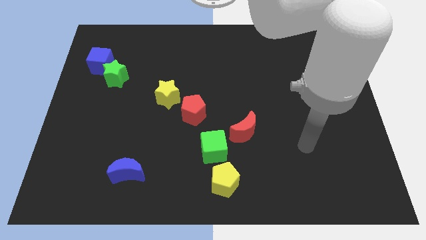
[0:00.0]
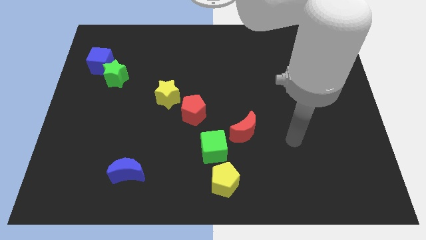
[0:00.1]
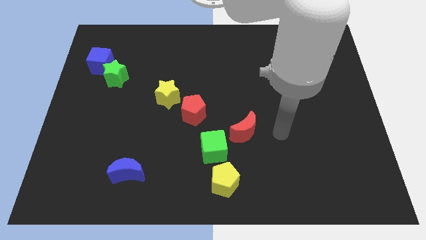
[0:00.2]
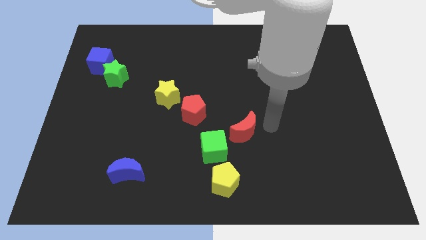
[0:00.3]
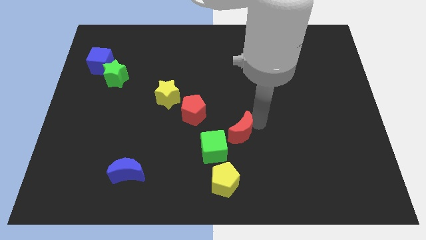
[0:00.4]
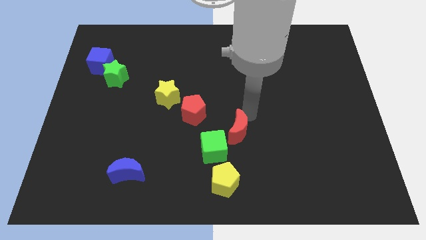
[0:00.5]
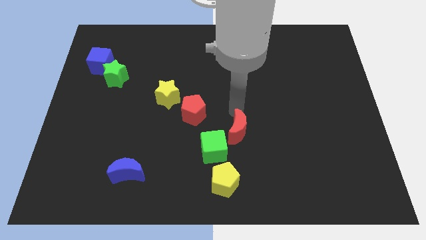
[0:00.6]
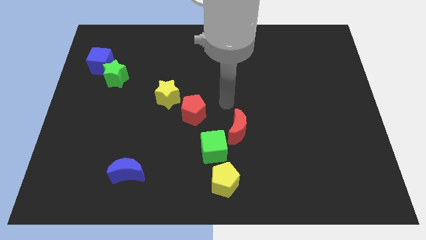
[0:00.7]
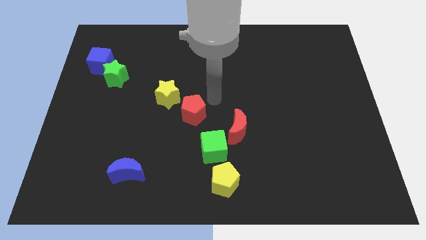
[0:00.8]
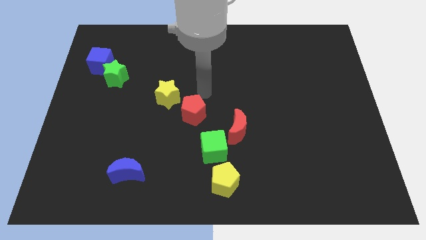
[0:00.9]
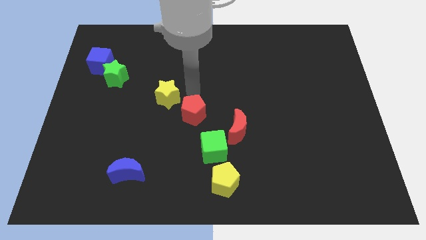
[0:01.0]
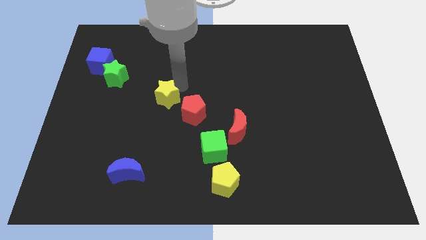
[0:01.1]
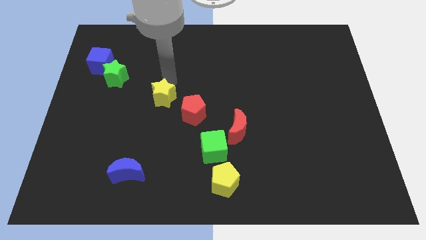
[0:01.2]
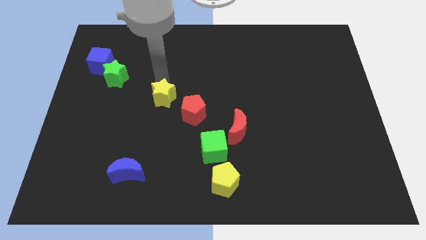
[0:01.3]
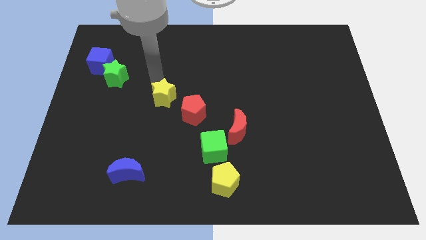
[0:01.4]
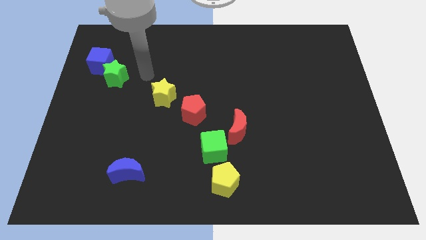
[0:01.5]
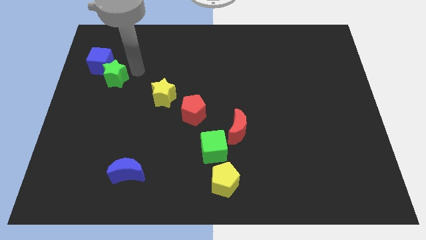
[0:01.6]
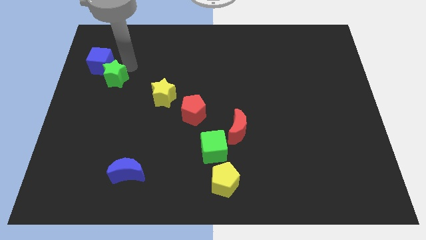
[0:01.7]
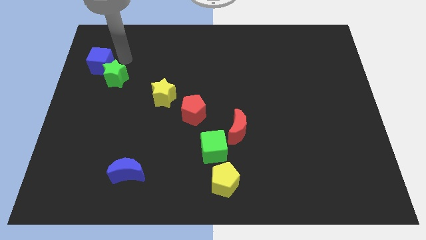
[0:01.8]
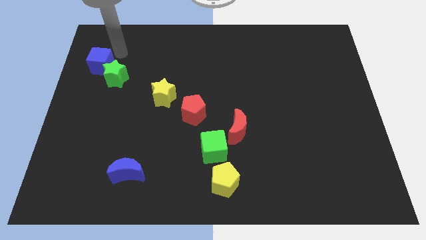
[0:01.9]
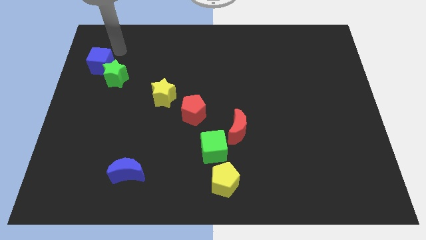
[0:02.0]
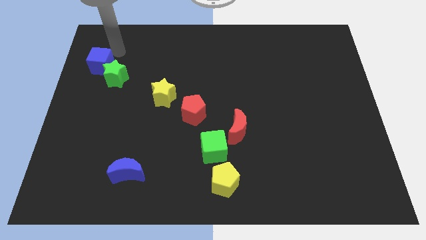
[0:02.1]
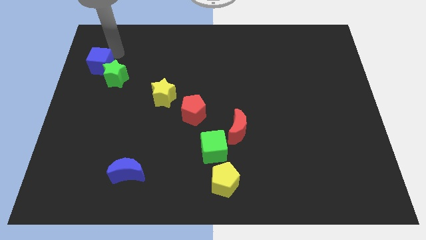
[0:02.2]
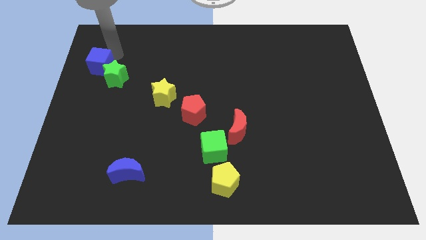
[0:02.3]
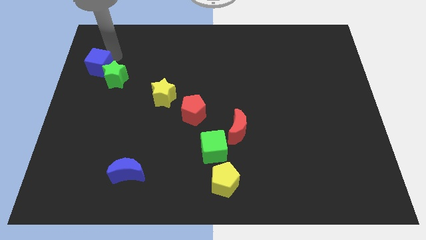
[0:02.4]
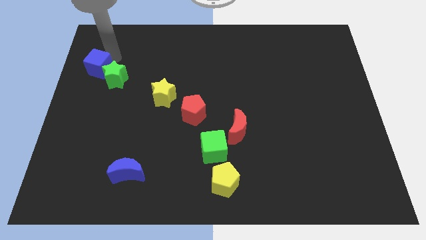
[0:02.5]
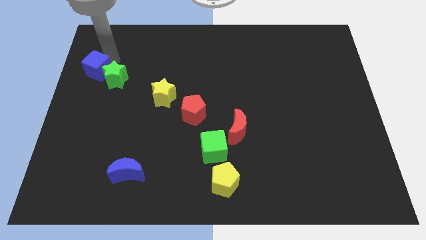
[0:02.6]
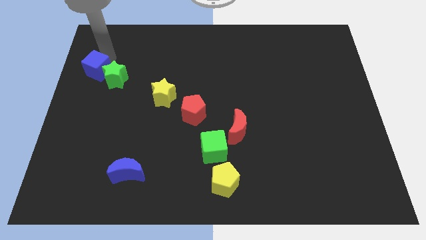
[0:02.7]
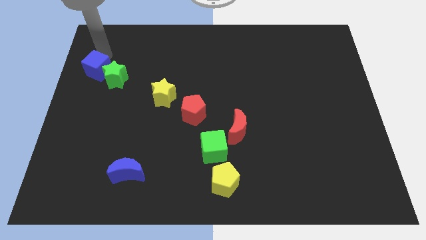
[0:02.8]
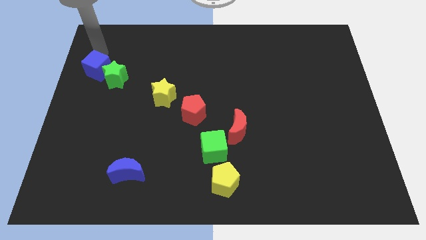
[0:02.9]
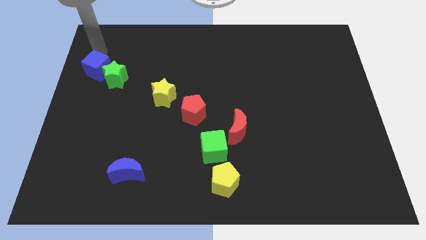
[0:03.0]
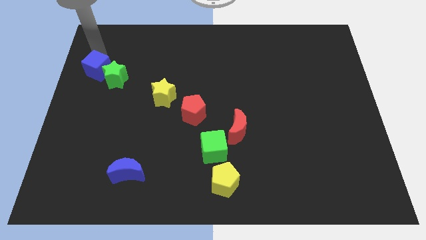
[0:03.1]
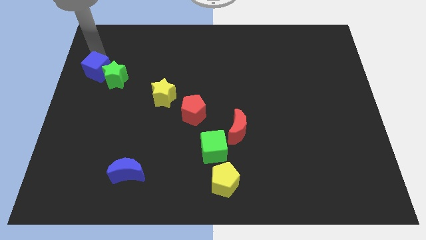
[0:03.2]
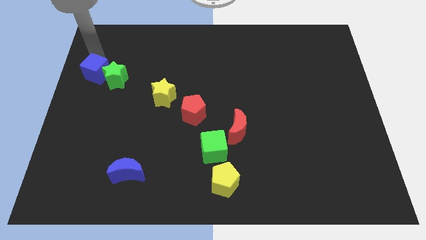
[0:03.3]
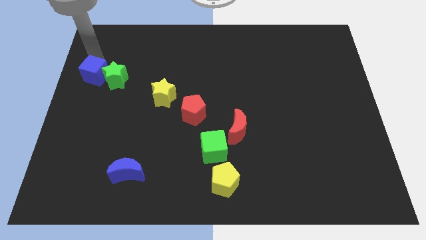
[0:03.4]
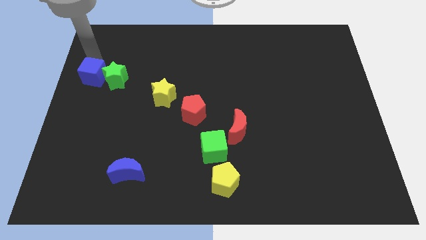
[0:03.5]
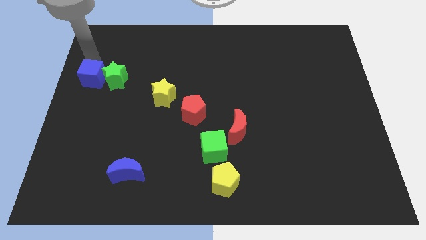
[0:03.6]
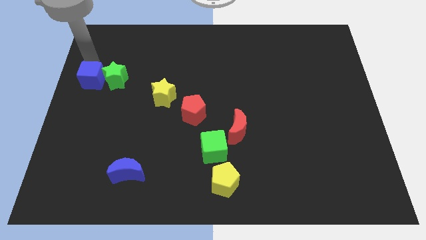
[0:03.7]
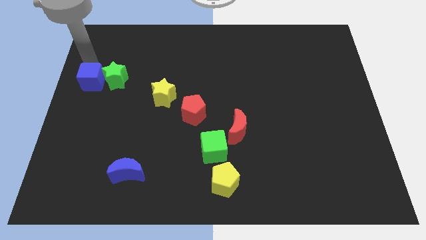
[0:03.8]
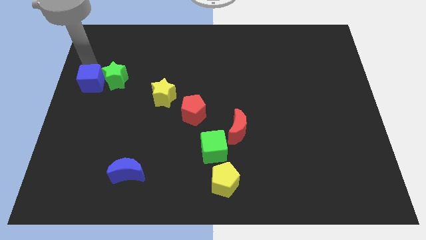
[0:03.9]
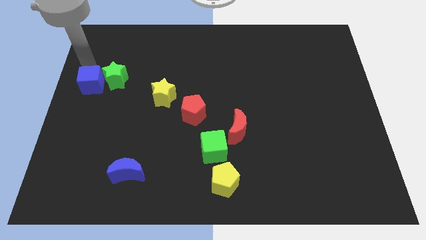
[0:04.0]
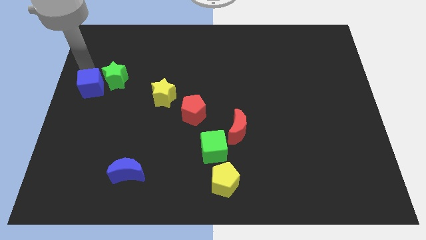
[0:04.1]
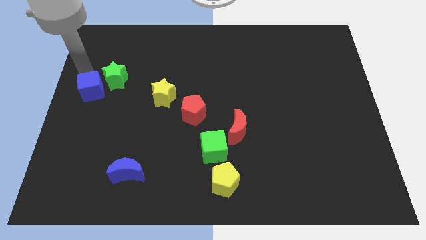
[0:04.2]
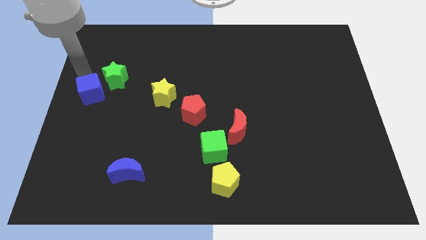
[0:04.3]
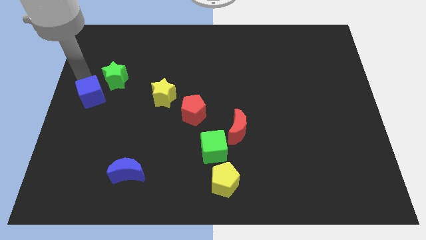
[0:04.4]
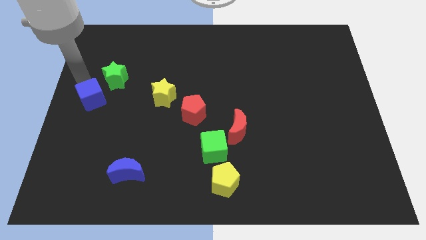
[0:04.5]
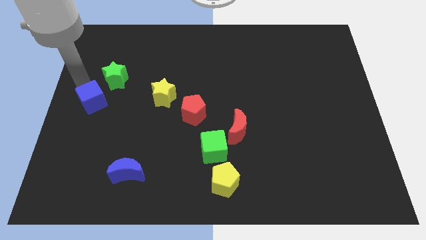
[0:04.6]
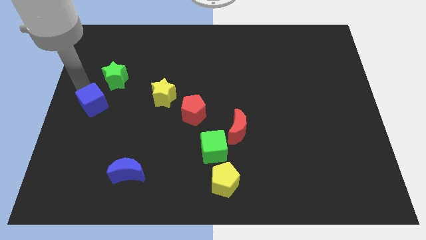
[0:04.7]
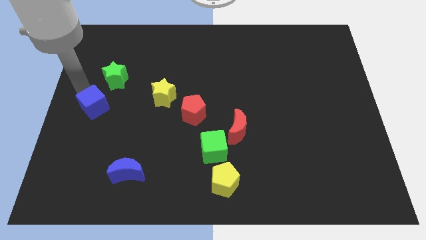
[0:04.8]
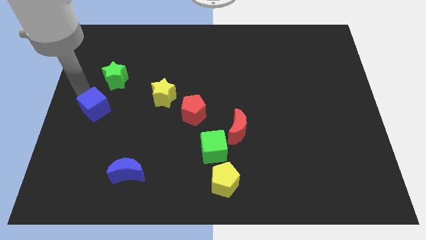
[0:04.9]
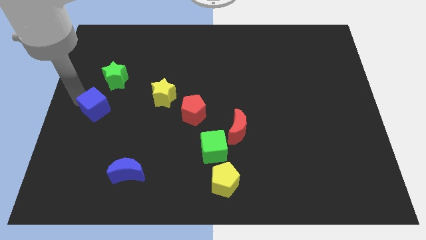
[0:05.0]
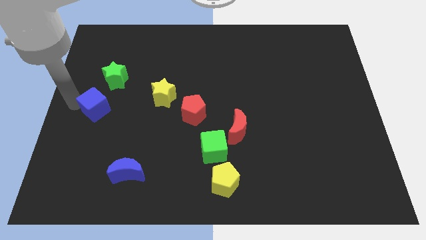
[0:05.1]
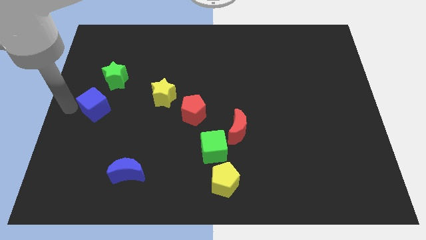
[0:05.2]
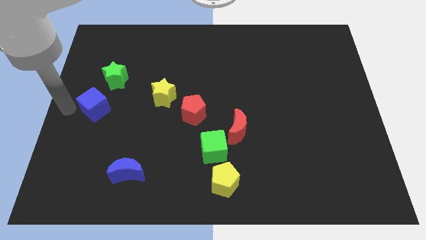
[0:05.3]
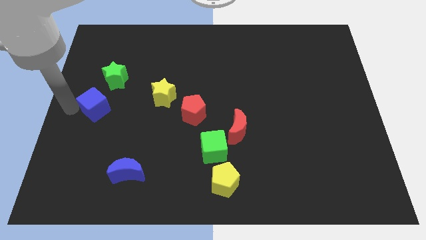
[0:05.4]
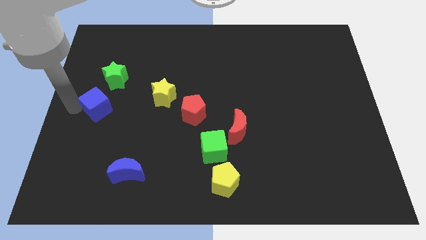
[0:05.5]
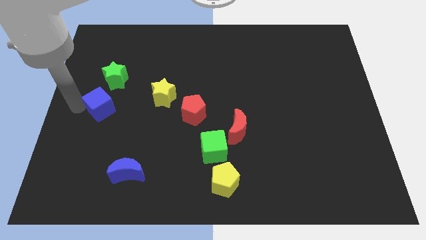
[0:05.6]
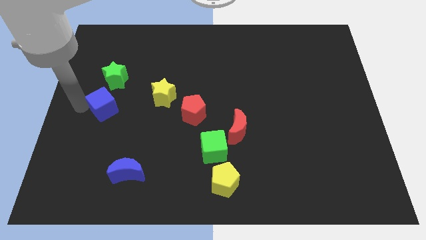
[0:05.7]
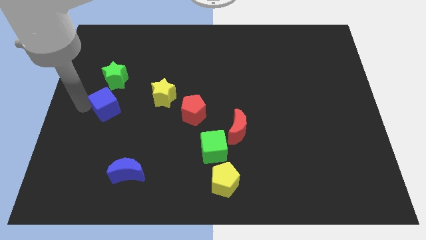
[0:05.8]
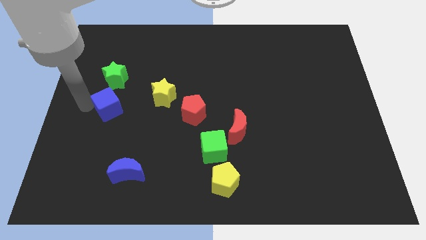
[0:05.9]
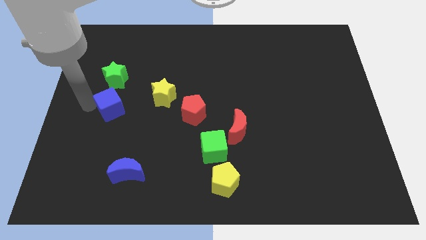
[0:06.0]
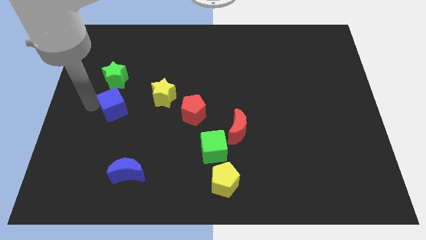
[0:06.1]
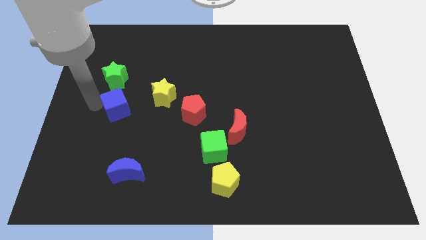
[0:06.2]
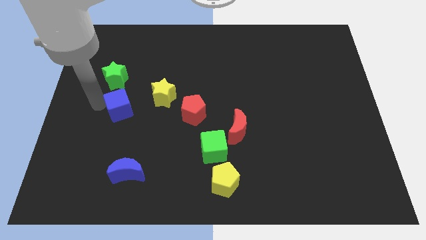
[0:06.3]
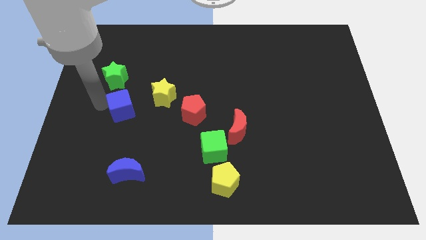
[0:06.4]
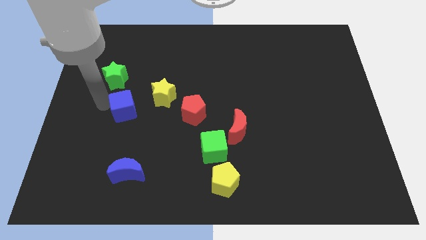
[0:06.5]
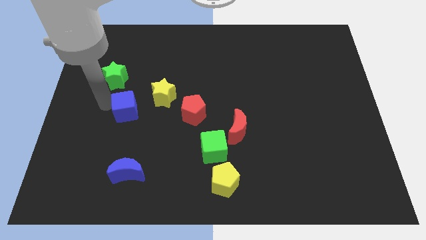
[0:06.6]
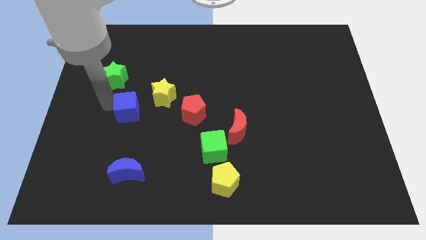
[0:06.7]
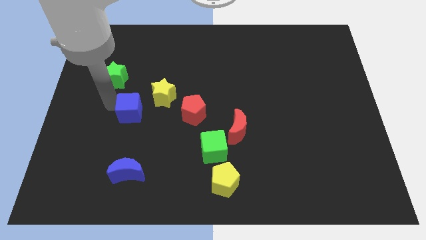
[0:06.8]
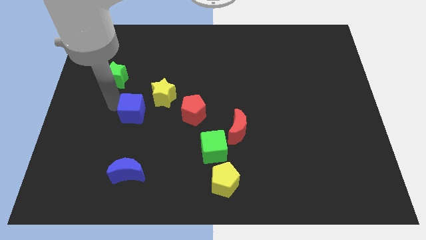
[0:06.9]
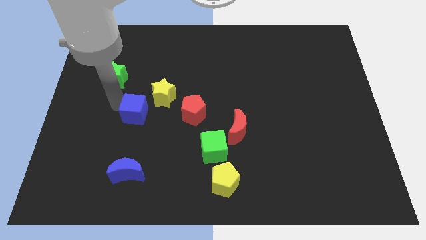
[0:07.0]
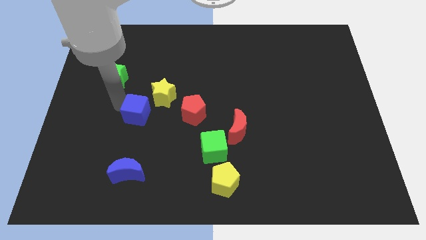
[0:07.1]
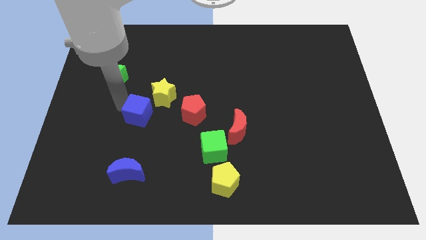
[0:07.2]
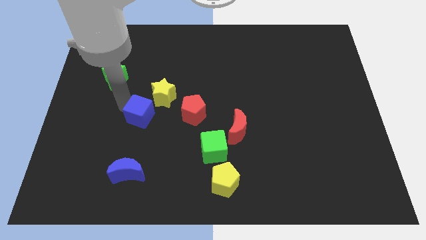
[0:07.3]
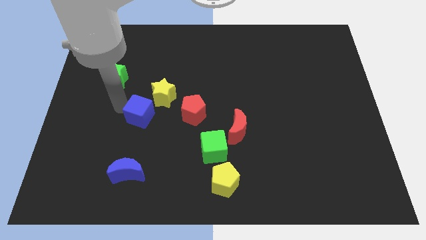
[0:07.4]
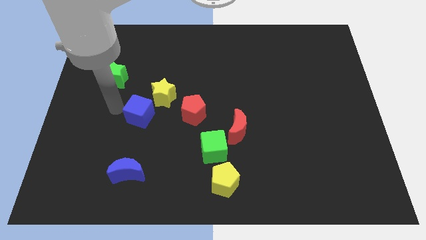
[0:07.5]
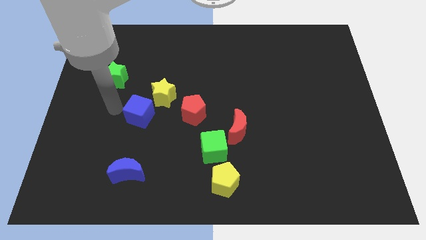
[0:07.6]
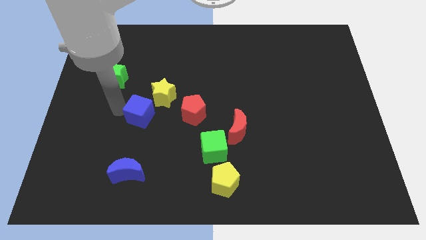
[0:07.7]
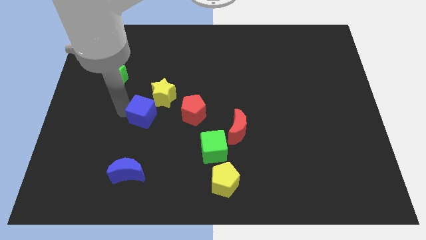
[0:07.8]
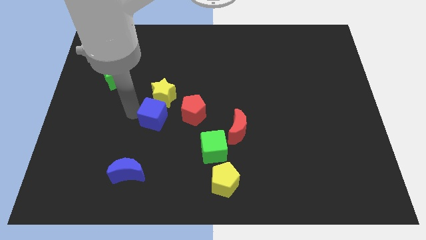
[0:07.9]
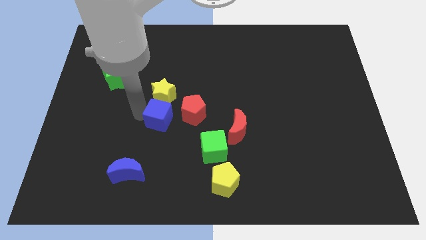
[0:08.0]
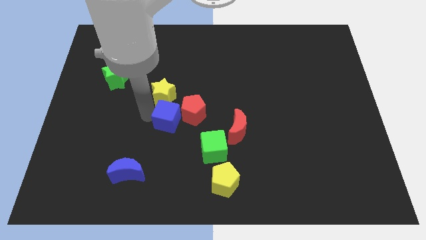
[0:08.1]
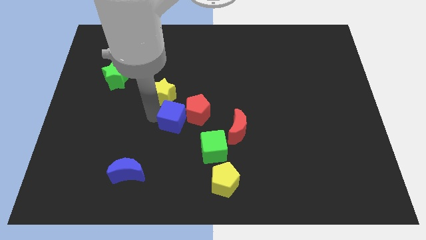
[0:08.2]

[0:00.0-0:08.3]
push the blue cube just left of the red moon
